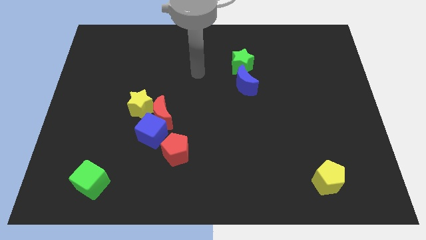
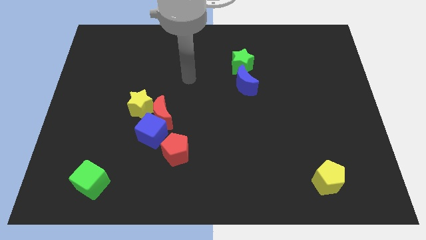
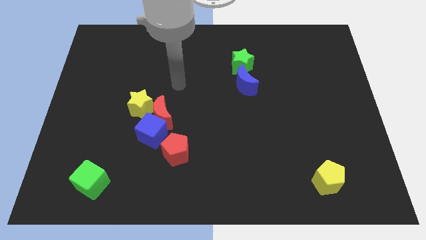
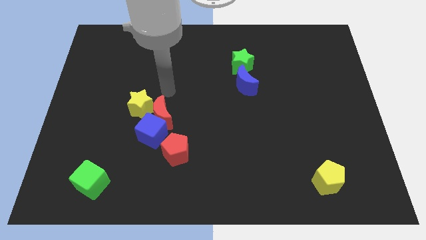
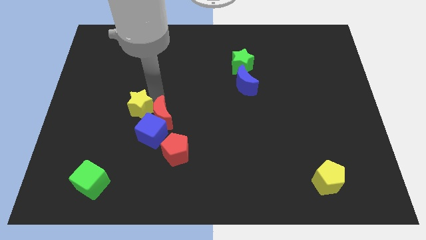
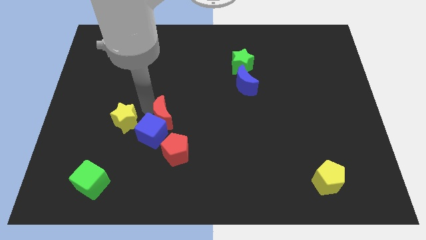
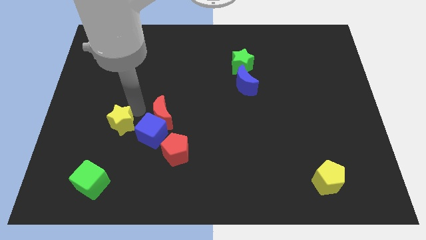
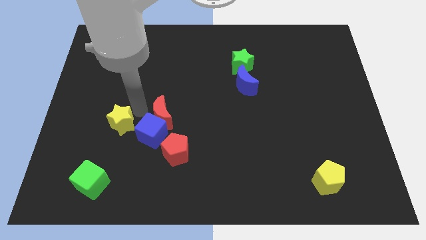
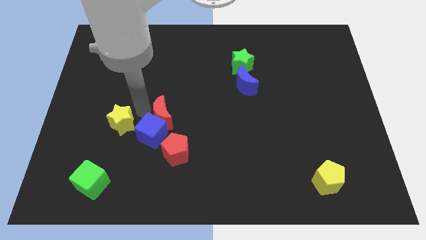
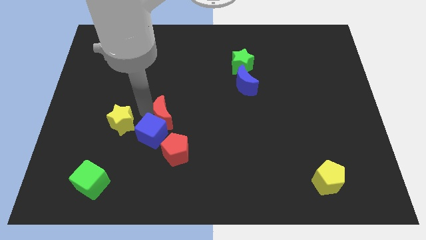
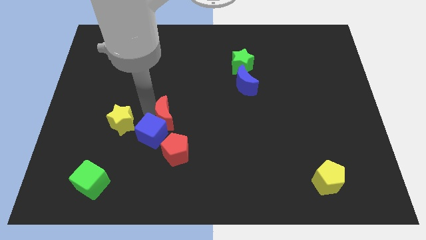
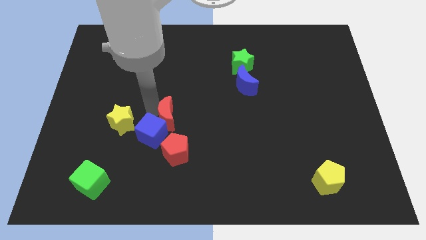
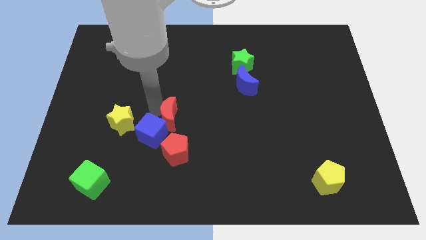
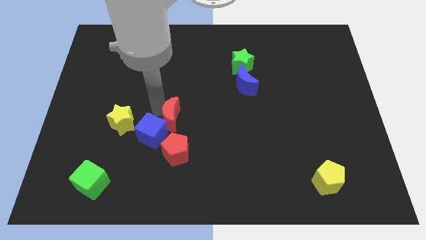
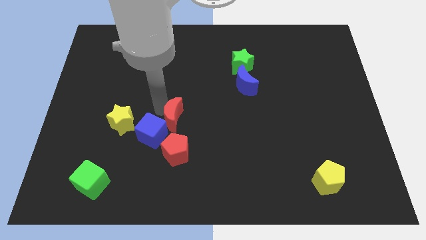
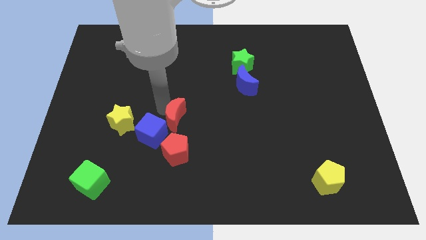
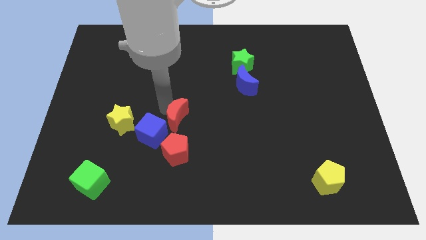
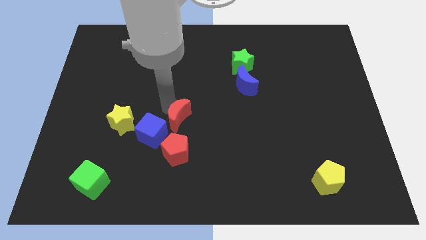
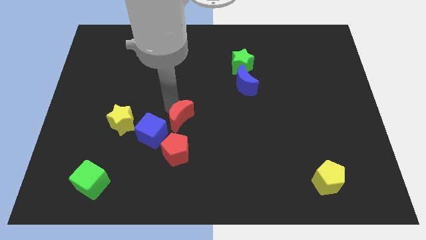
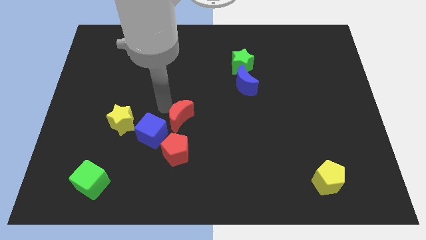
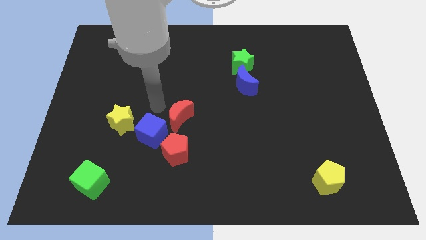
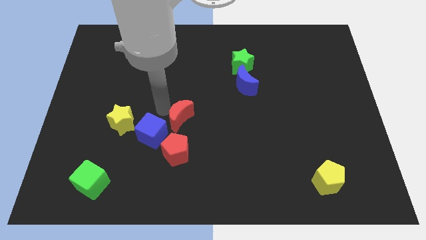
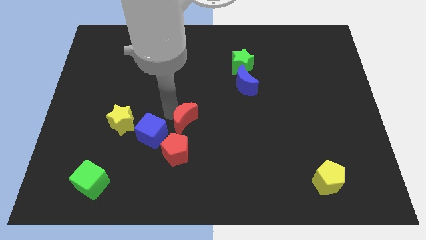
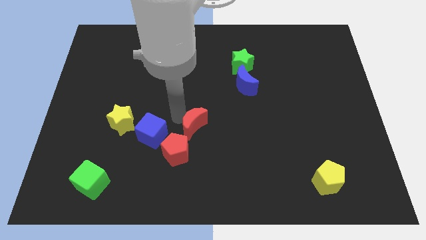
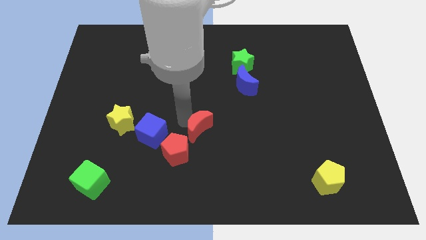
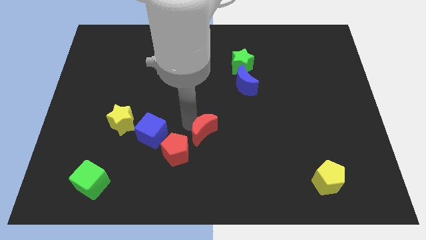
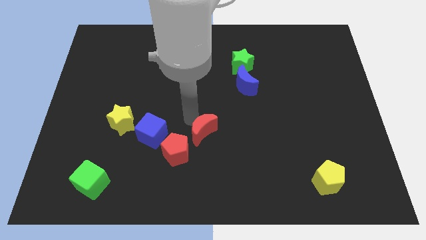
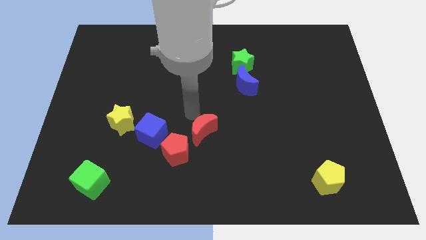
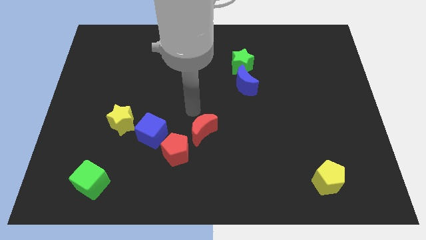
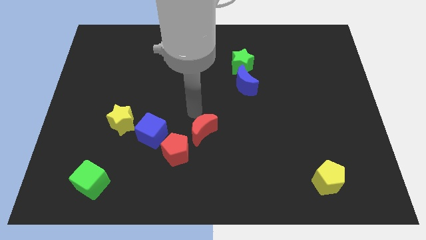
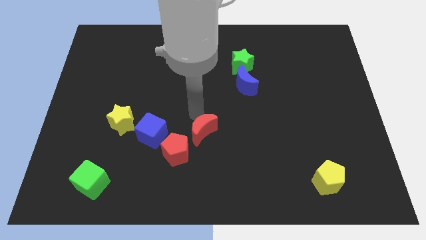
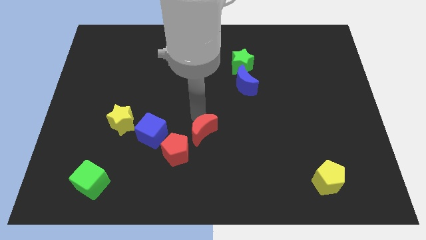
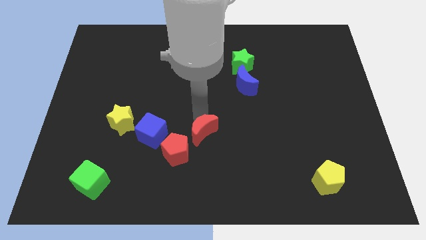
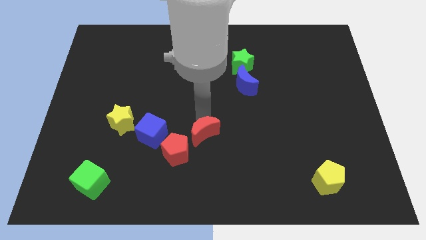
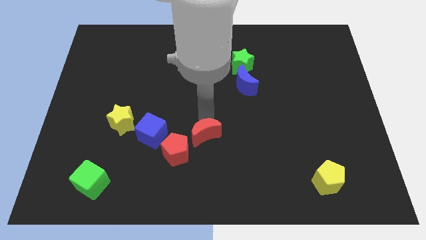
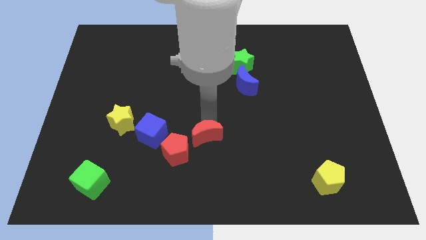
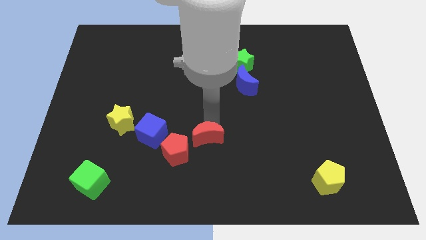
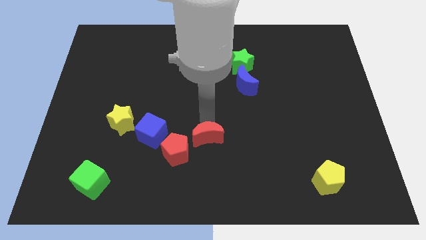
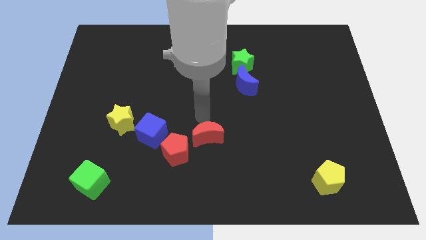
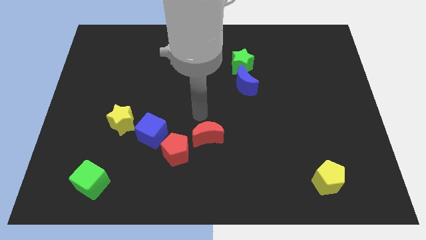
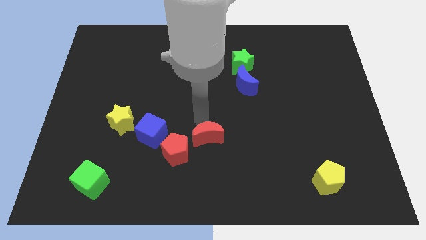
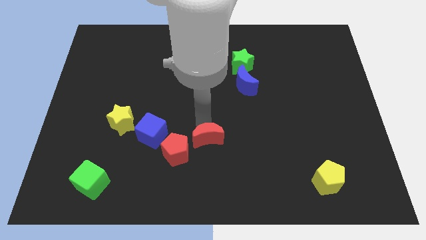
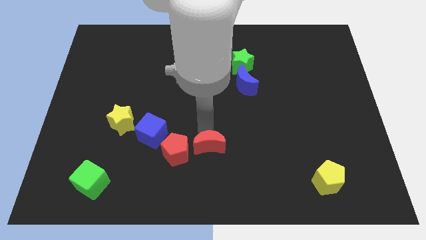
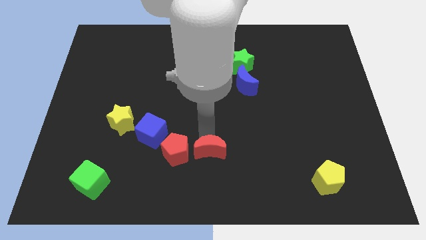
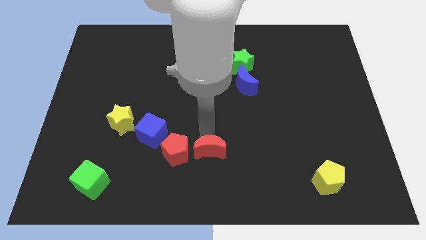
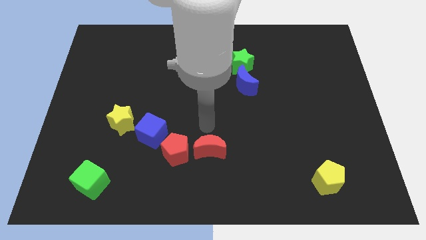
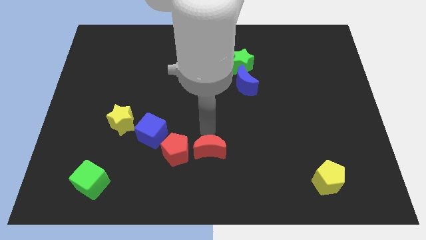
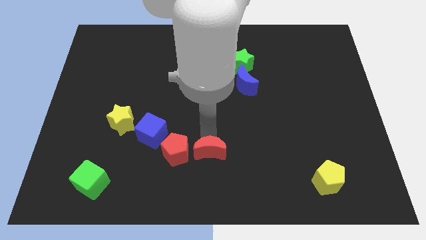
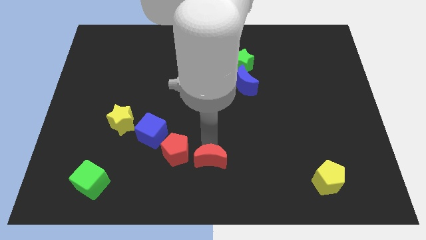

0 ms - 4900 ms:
slide the red moon to the bottom

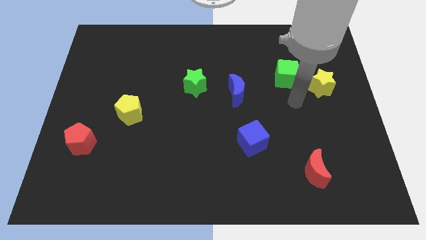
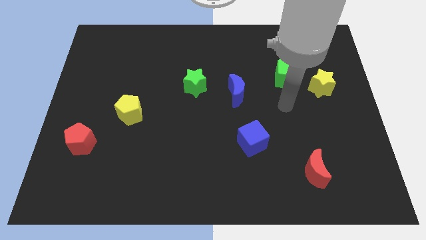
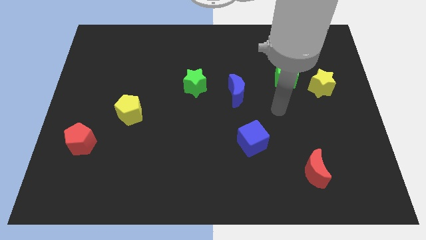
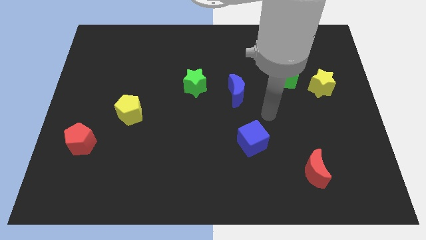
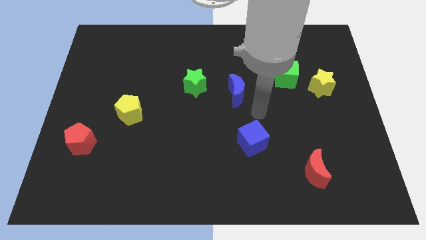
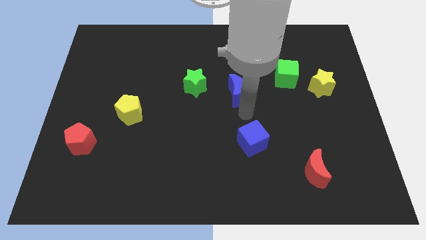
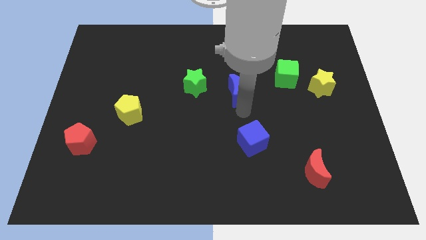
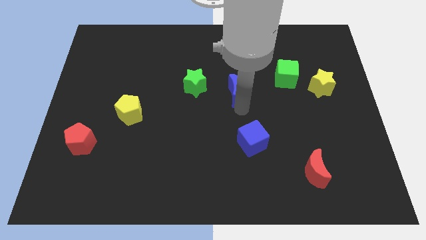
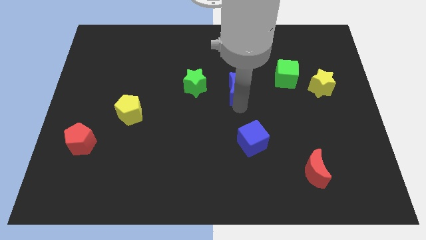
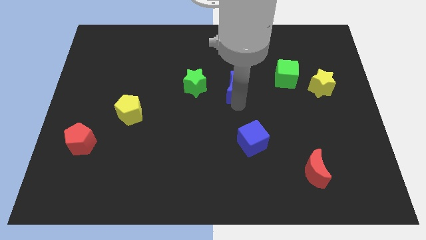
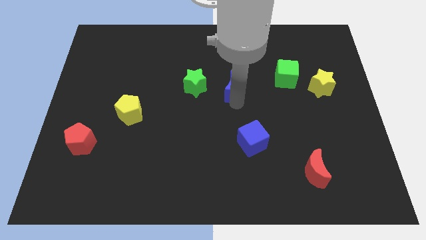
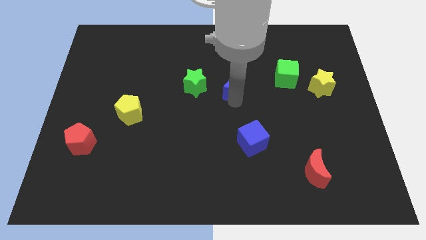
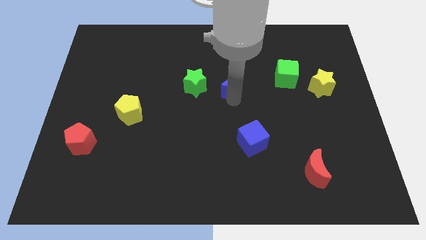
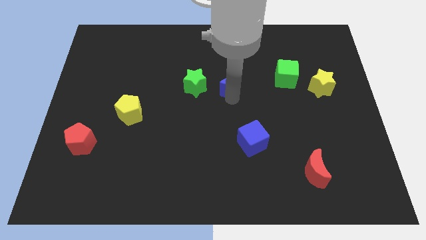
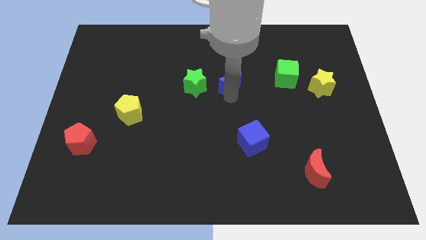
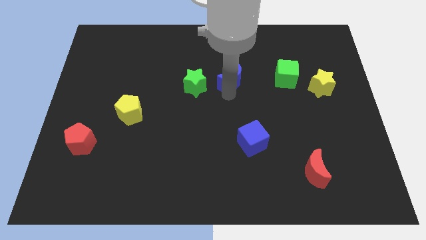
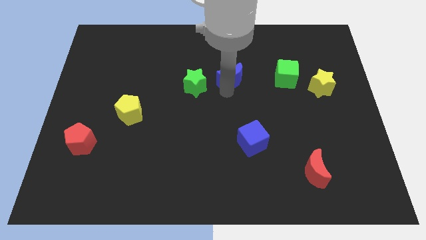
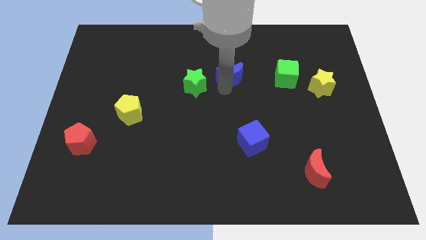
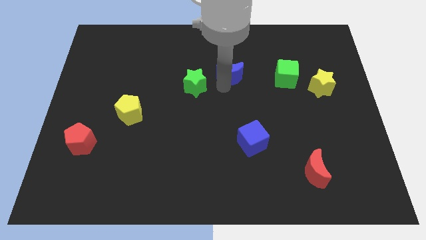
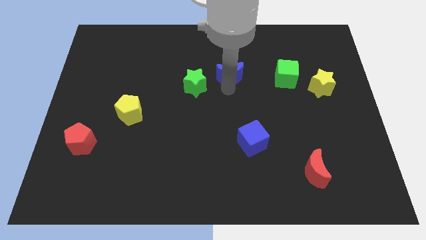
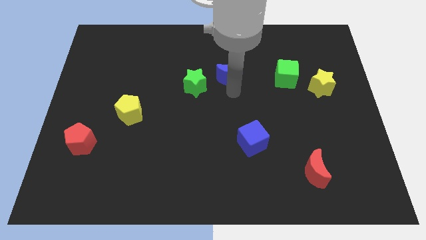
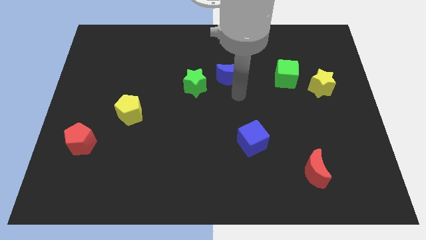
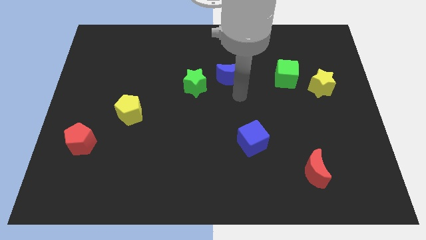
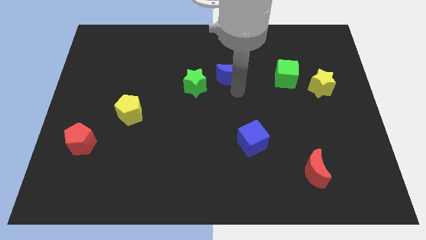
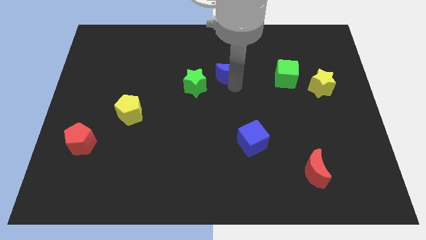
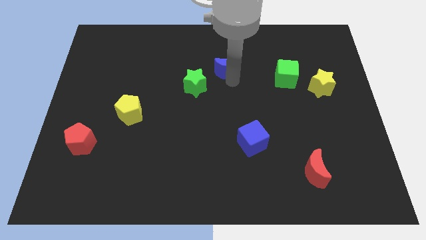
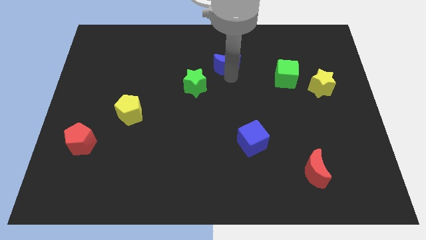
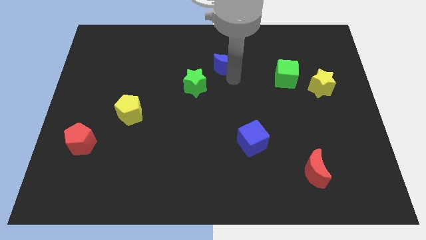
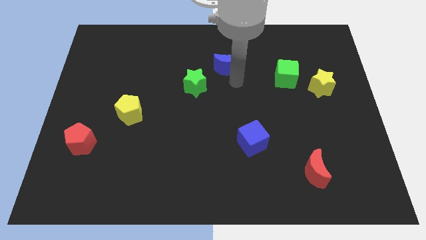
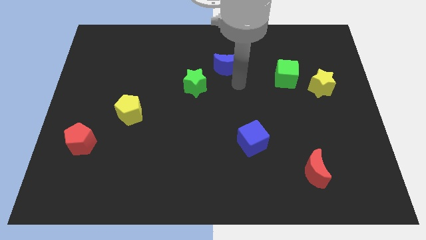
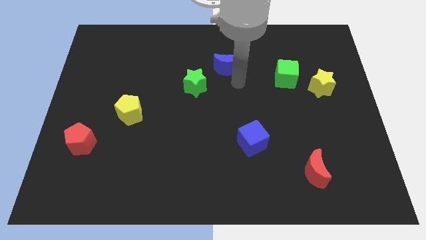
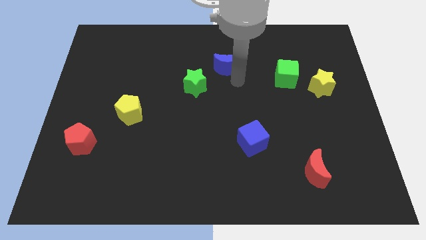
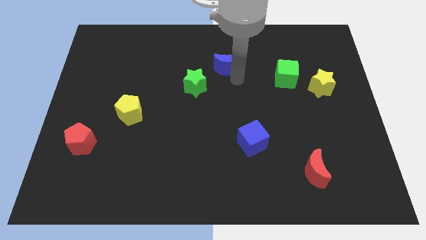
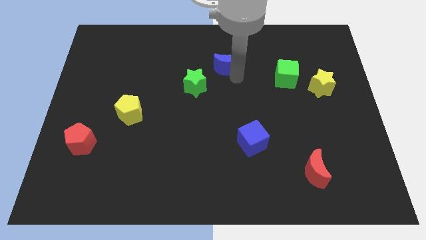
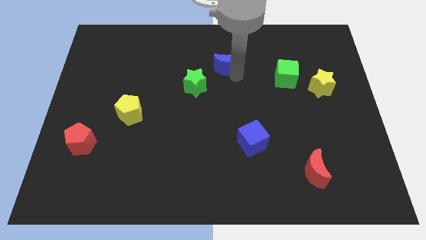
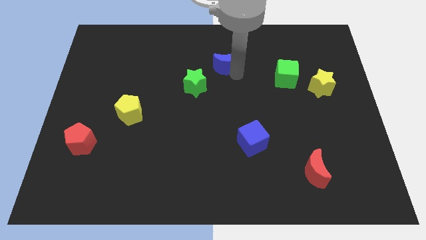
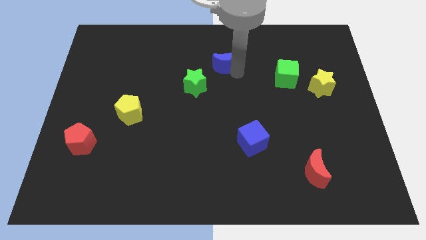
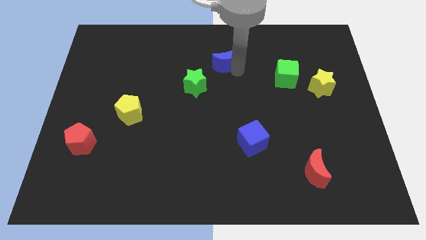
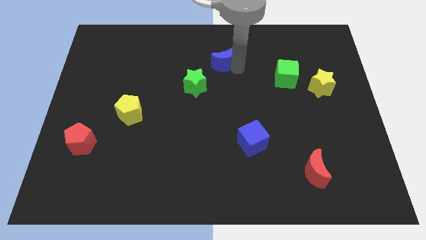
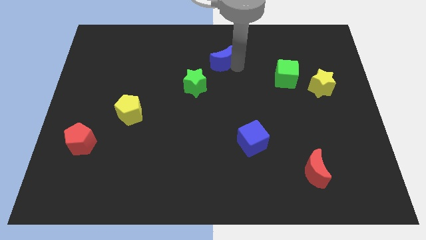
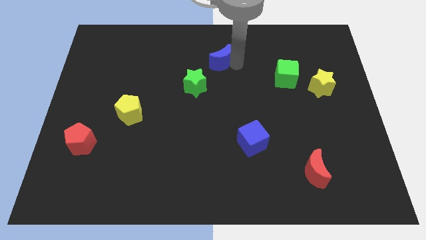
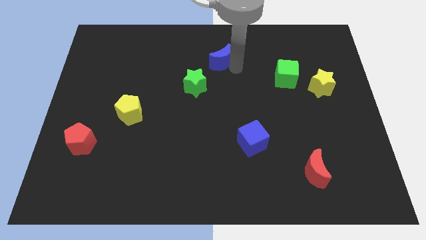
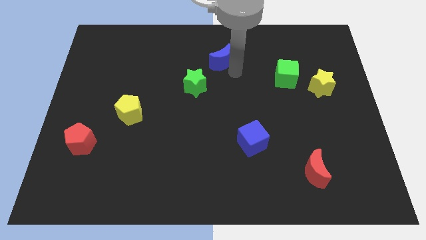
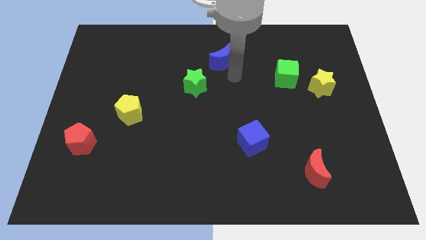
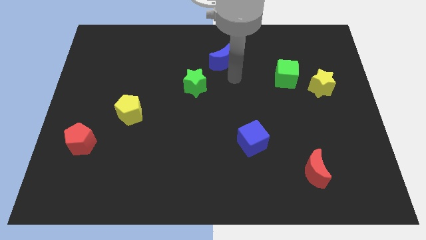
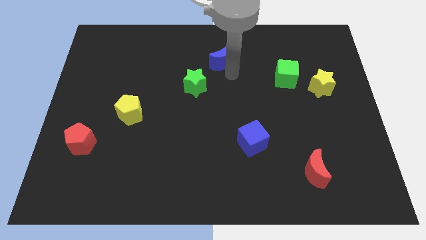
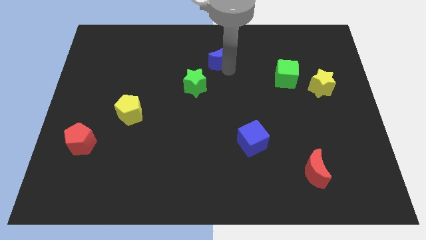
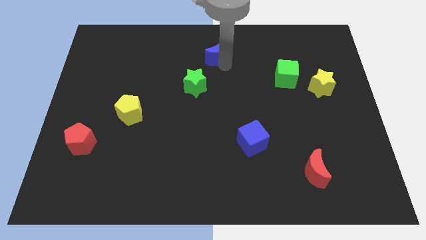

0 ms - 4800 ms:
put the blue moon to the towards your base
